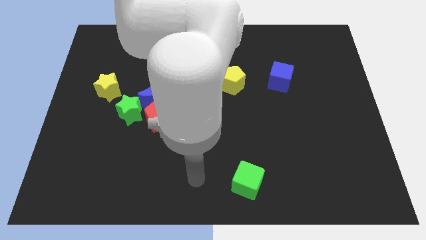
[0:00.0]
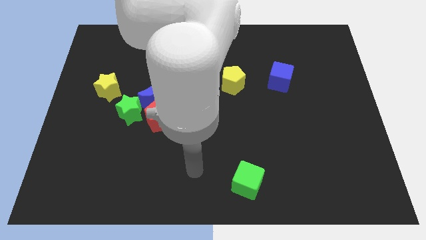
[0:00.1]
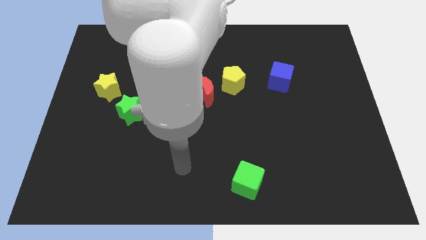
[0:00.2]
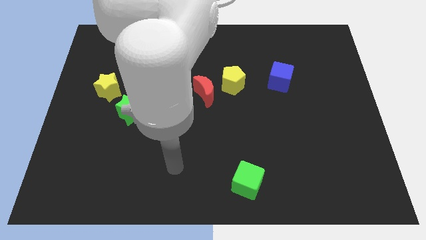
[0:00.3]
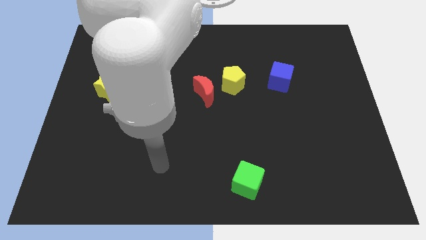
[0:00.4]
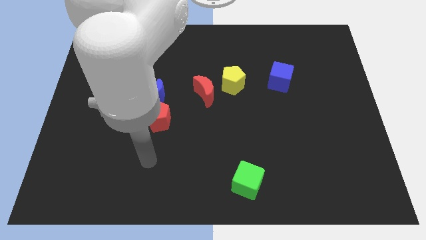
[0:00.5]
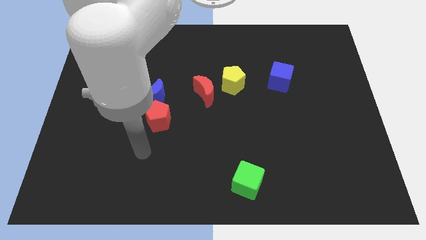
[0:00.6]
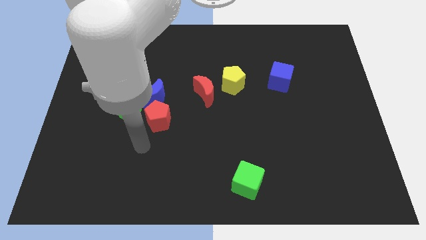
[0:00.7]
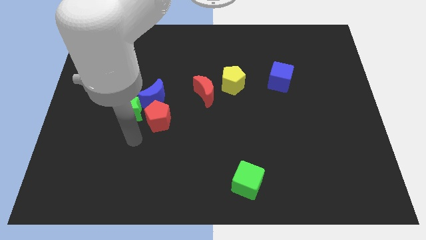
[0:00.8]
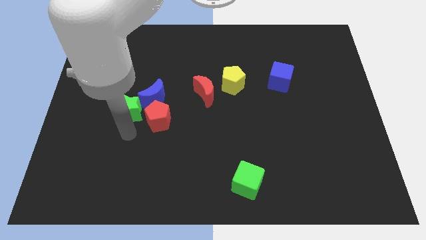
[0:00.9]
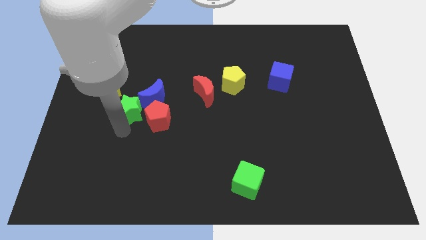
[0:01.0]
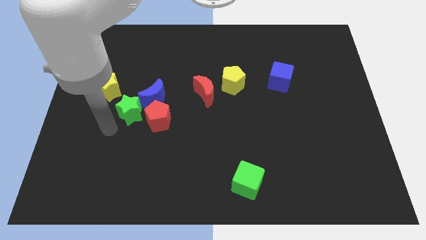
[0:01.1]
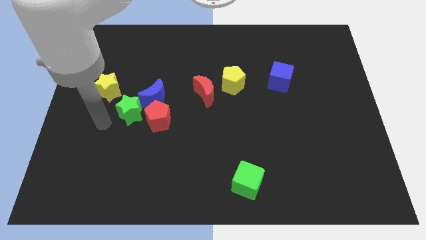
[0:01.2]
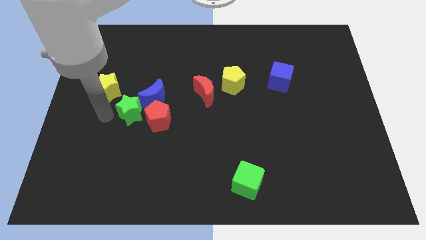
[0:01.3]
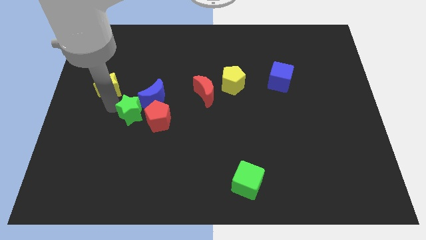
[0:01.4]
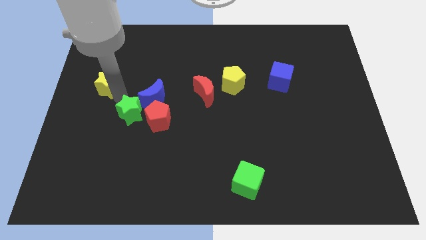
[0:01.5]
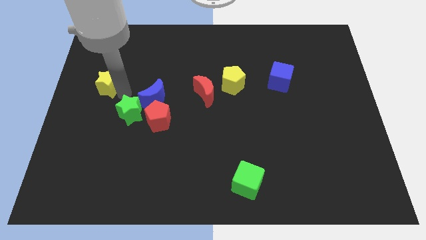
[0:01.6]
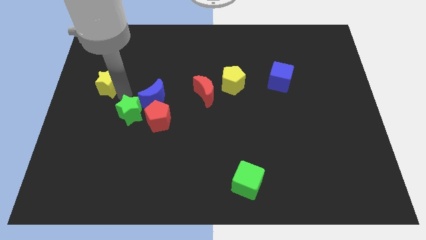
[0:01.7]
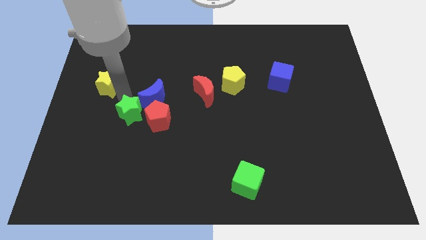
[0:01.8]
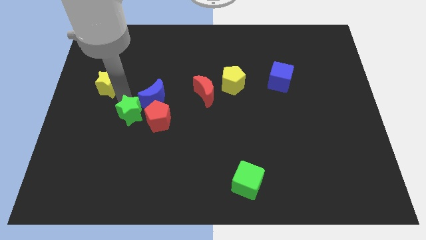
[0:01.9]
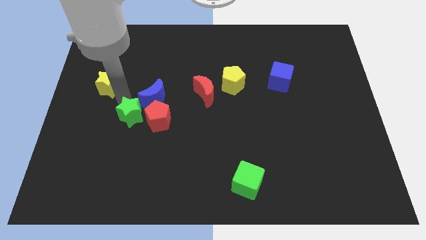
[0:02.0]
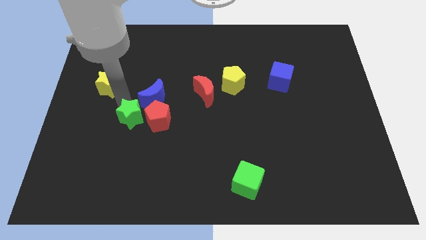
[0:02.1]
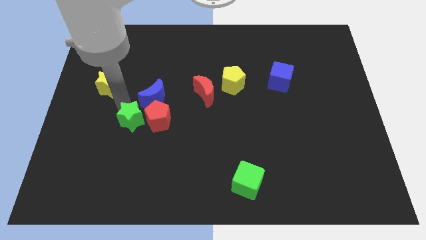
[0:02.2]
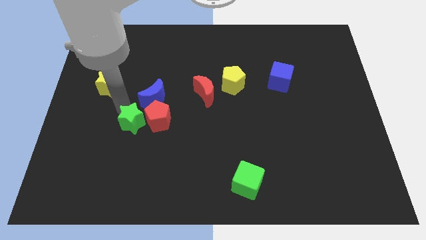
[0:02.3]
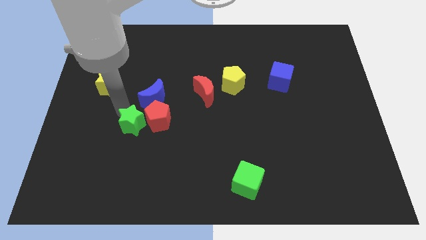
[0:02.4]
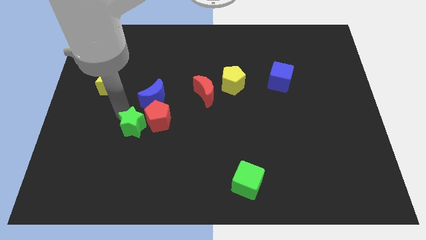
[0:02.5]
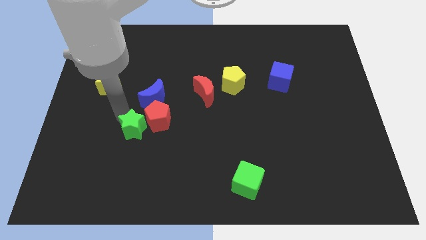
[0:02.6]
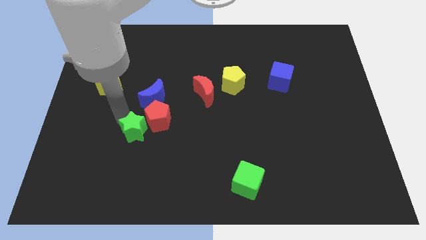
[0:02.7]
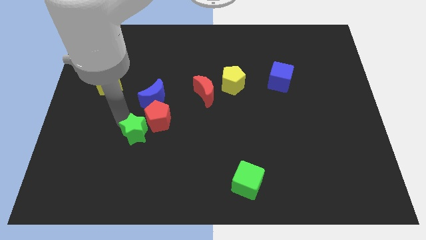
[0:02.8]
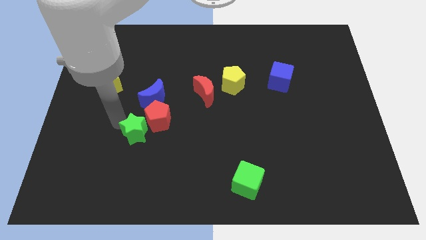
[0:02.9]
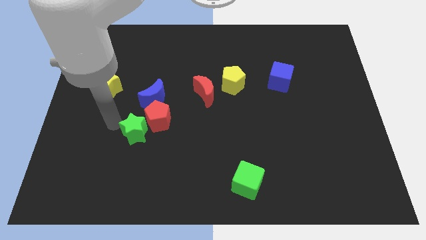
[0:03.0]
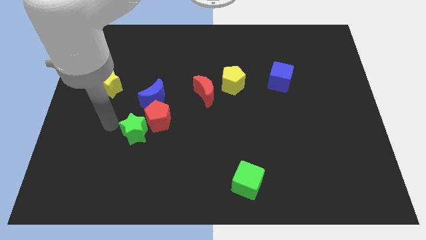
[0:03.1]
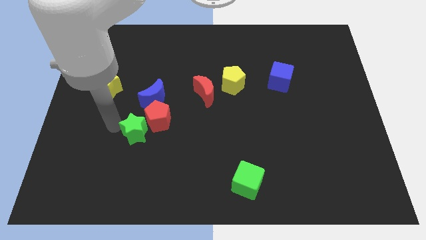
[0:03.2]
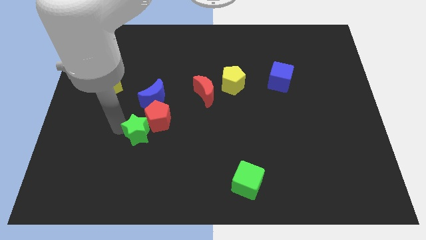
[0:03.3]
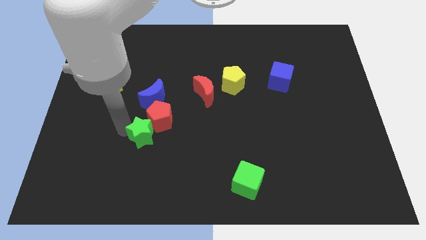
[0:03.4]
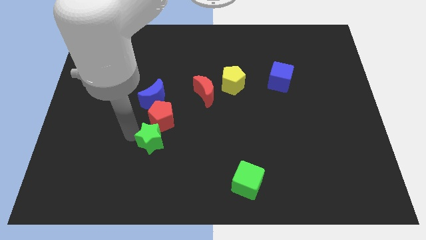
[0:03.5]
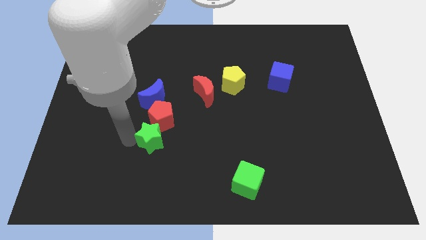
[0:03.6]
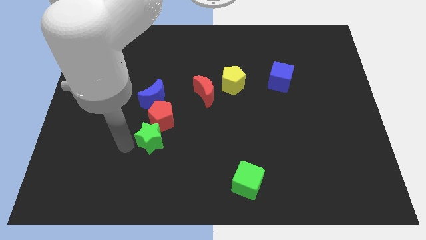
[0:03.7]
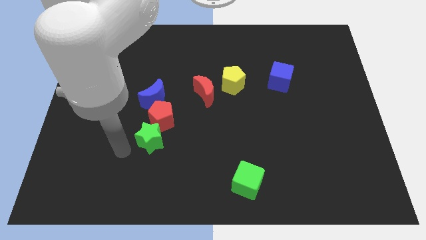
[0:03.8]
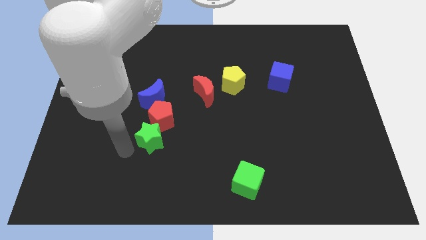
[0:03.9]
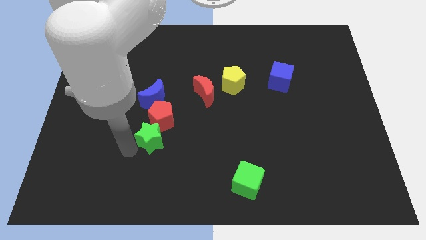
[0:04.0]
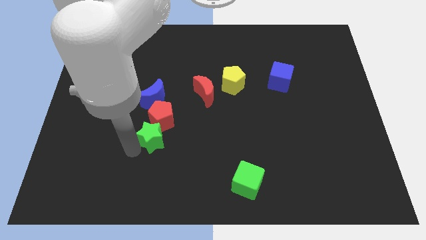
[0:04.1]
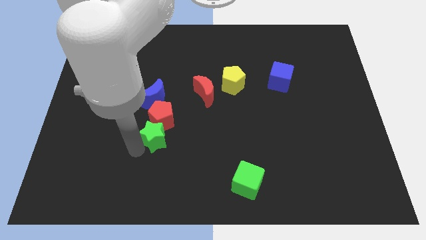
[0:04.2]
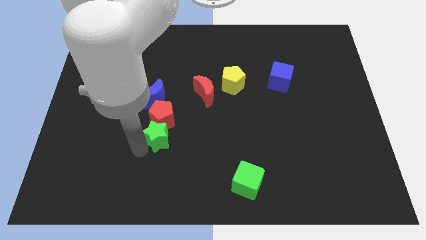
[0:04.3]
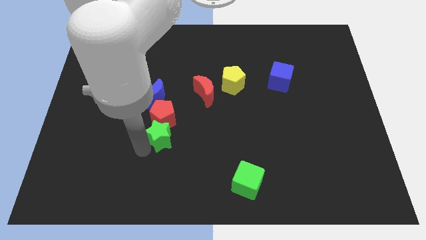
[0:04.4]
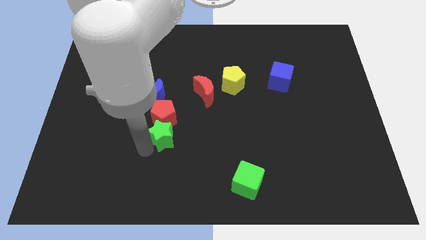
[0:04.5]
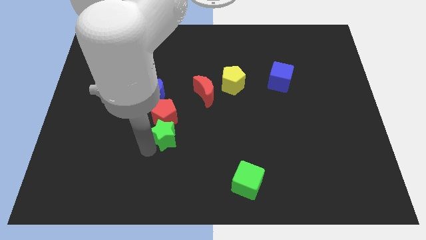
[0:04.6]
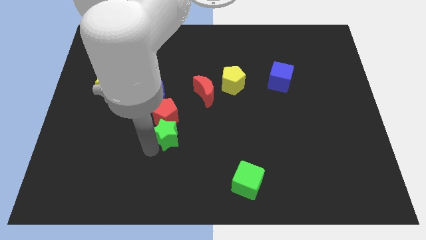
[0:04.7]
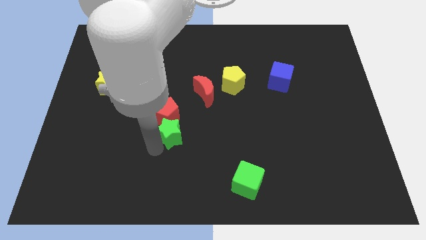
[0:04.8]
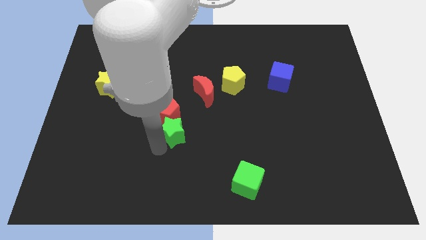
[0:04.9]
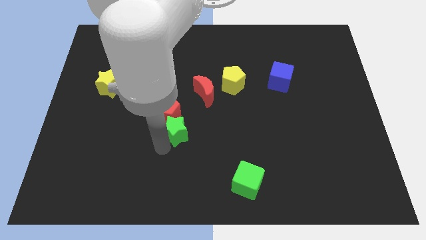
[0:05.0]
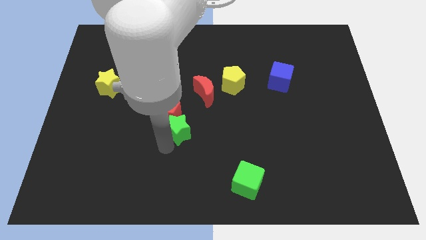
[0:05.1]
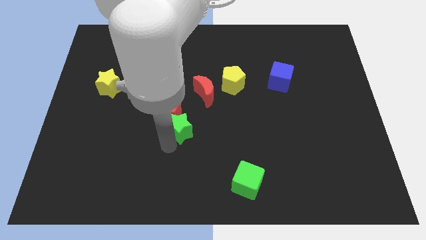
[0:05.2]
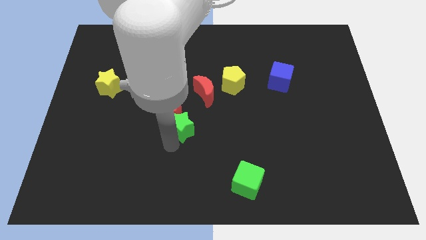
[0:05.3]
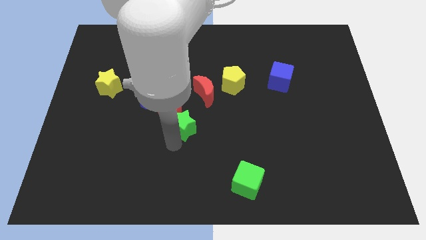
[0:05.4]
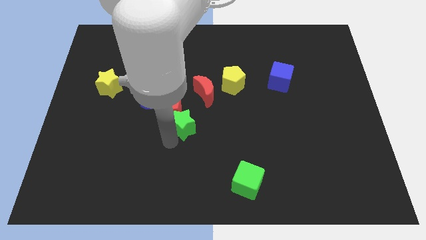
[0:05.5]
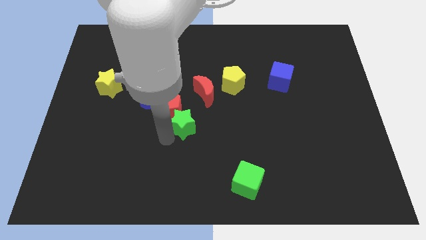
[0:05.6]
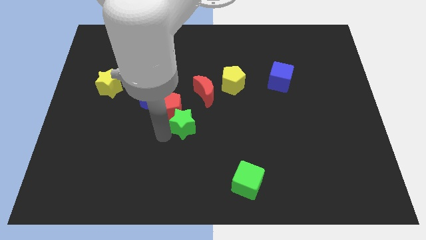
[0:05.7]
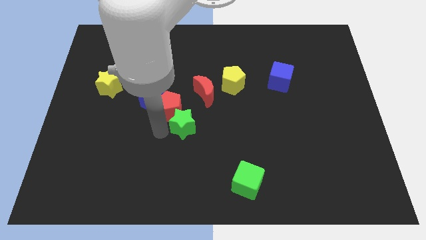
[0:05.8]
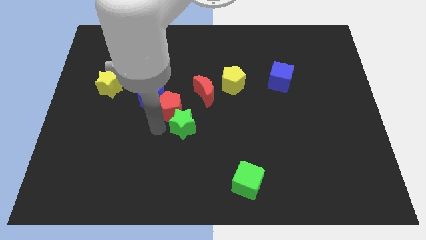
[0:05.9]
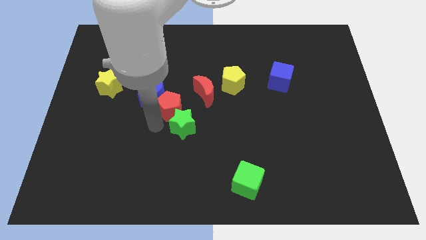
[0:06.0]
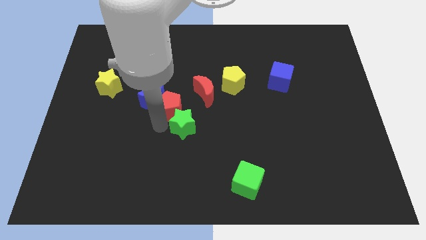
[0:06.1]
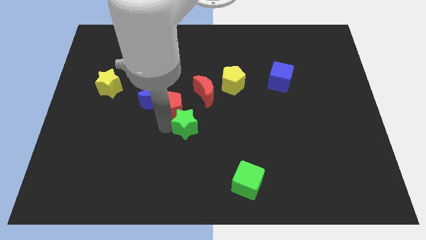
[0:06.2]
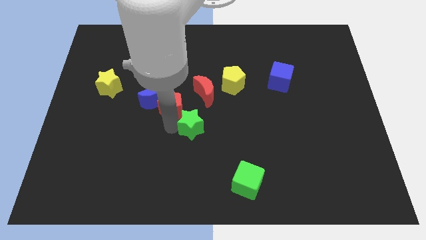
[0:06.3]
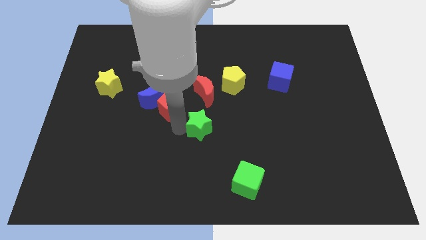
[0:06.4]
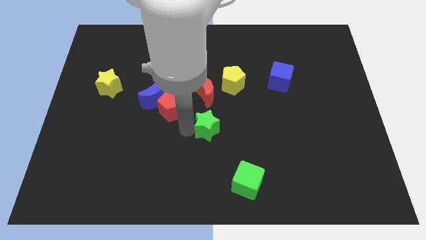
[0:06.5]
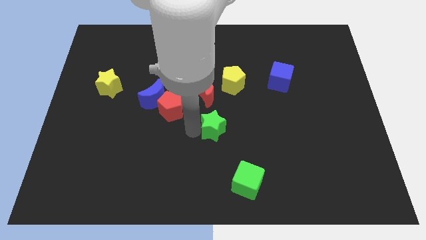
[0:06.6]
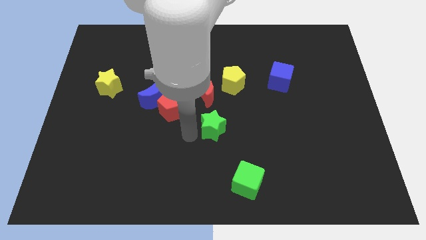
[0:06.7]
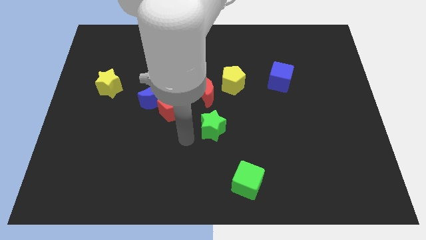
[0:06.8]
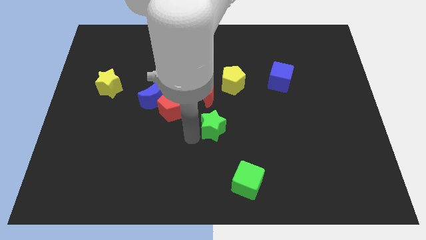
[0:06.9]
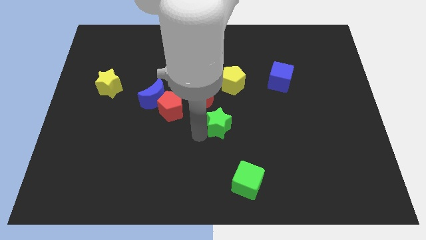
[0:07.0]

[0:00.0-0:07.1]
push the green star to the right

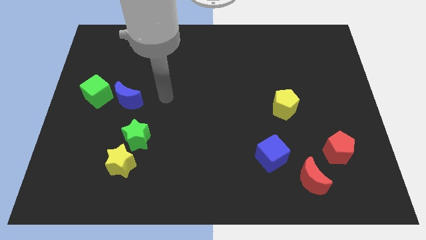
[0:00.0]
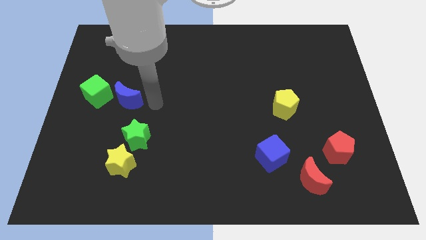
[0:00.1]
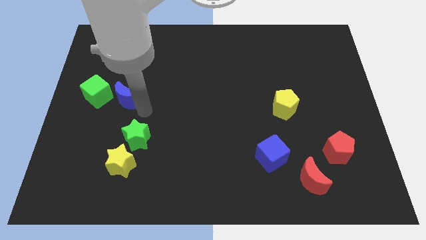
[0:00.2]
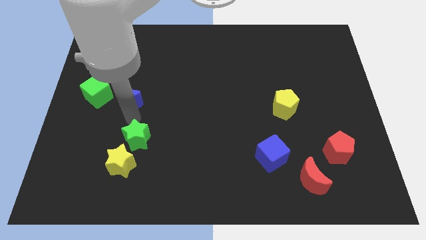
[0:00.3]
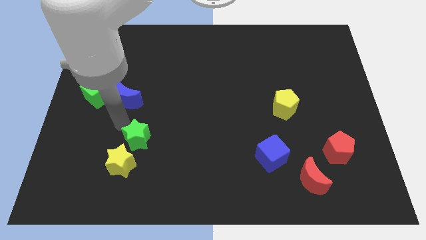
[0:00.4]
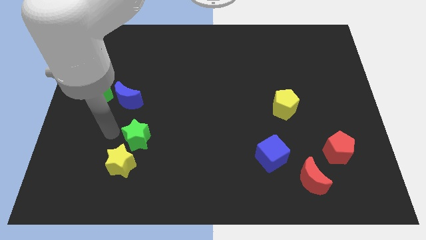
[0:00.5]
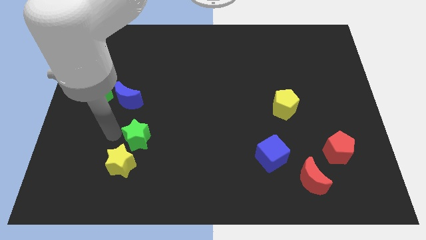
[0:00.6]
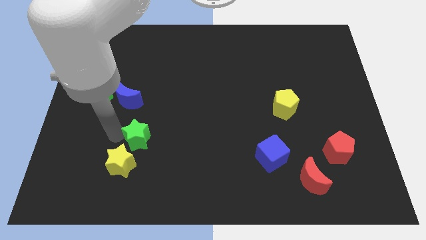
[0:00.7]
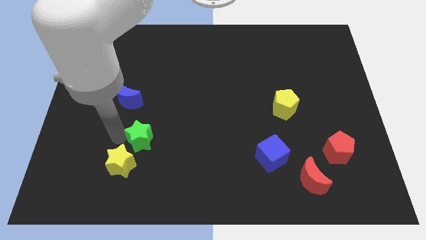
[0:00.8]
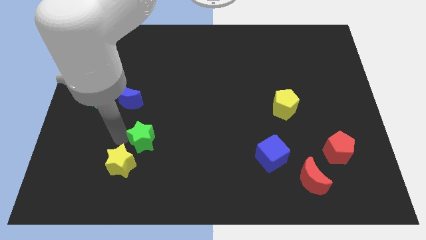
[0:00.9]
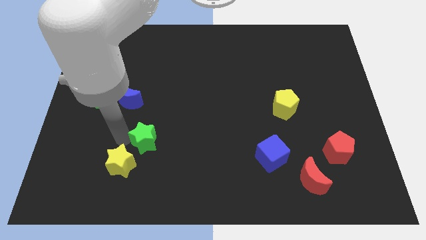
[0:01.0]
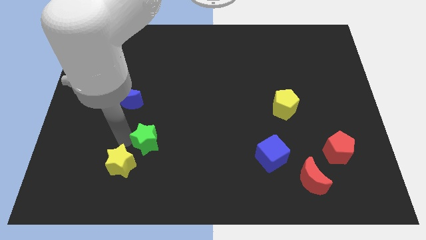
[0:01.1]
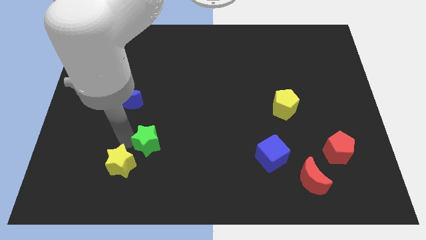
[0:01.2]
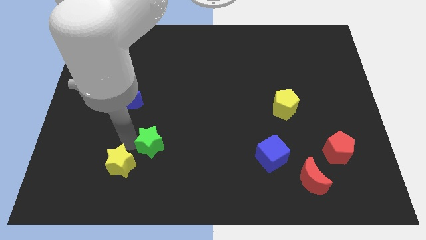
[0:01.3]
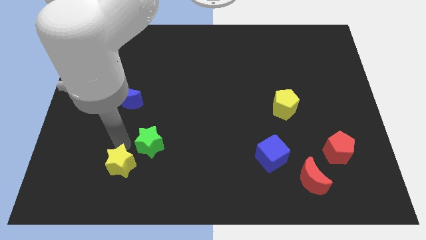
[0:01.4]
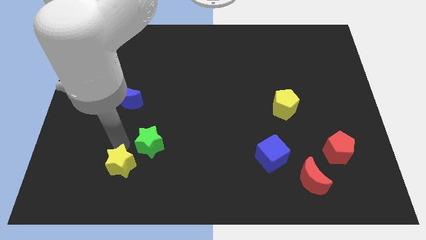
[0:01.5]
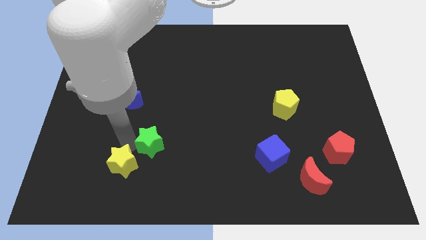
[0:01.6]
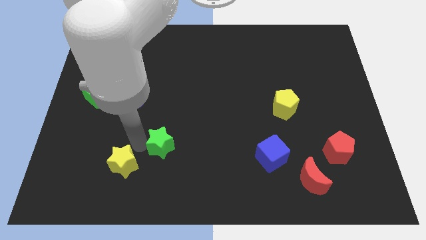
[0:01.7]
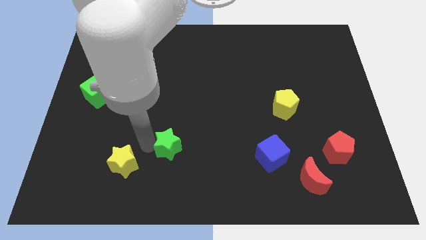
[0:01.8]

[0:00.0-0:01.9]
slightly slide the green star to the right
